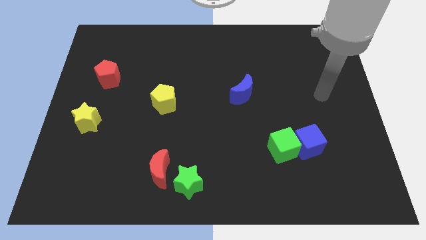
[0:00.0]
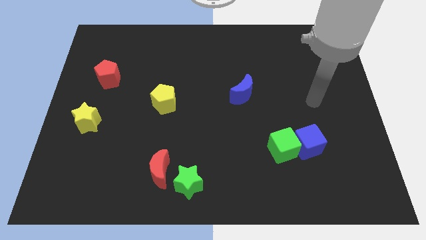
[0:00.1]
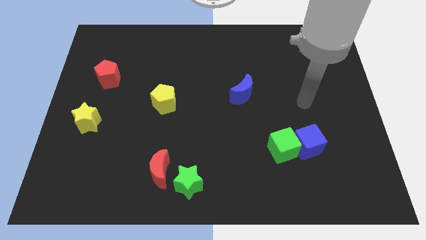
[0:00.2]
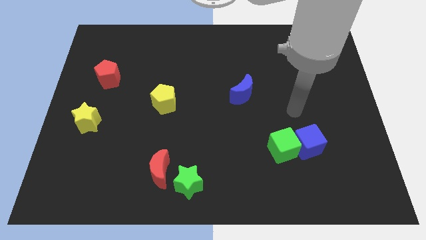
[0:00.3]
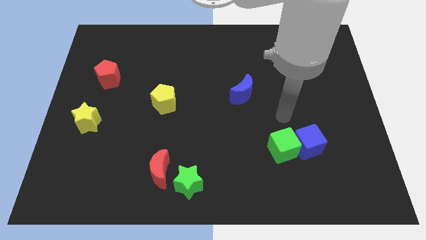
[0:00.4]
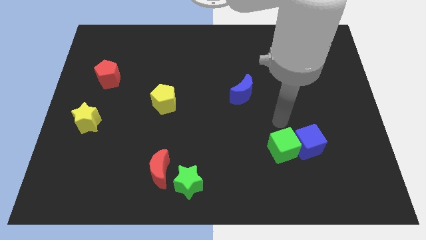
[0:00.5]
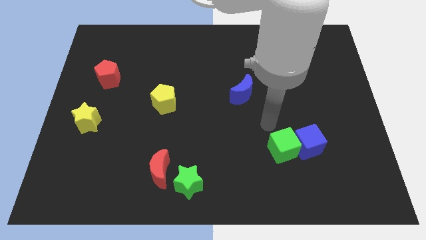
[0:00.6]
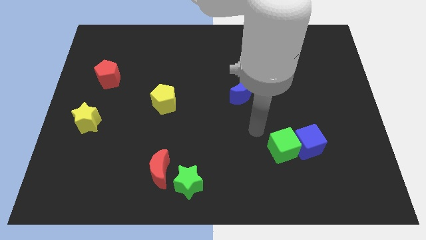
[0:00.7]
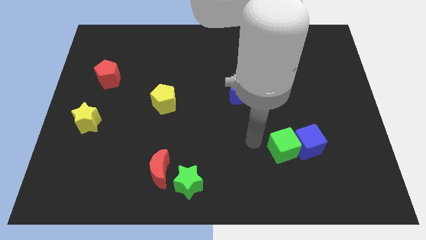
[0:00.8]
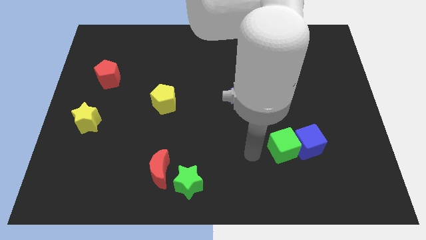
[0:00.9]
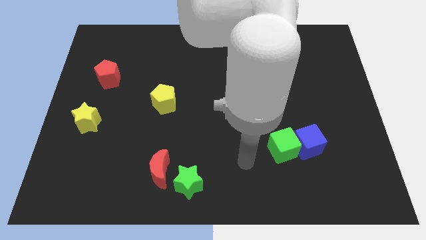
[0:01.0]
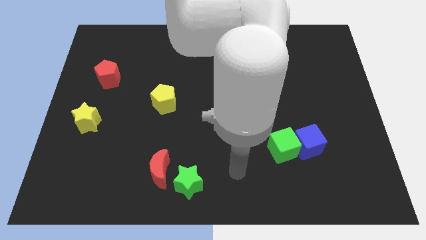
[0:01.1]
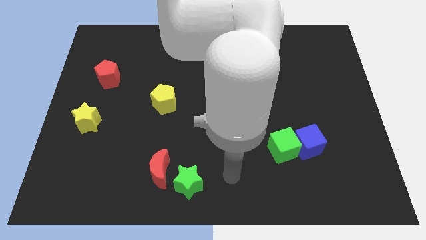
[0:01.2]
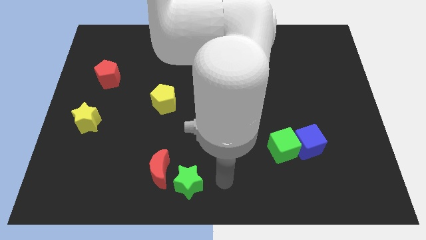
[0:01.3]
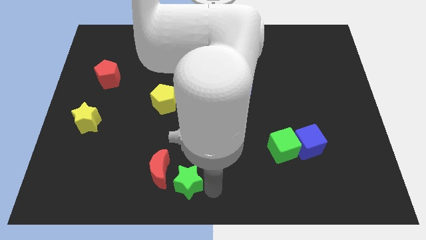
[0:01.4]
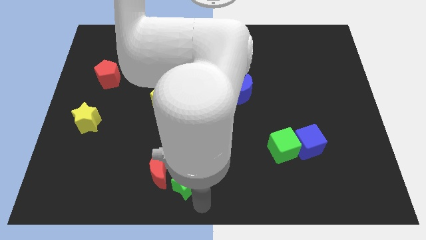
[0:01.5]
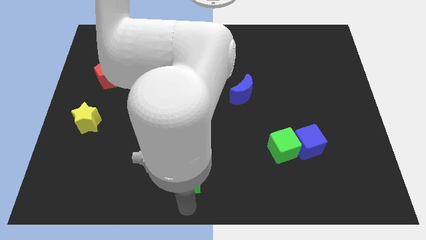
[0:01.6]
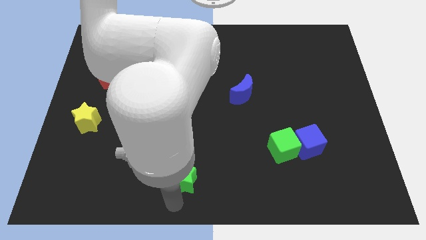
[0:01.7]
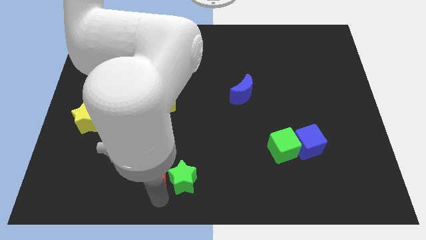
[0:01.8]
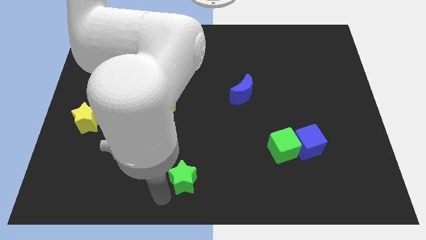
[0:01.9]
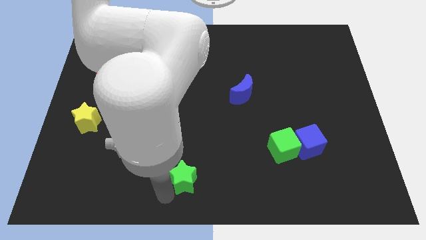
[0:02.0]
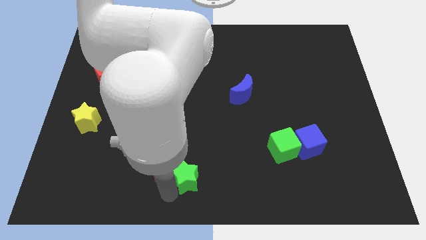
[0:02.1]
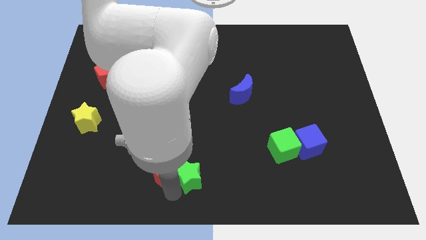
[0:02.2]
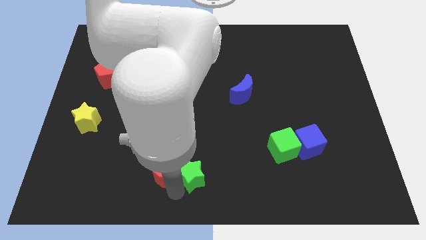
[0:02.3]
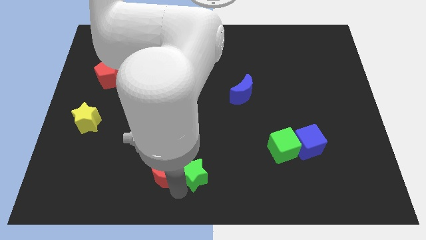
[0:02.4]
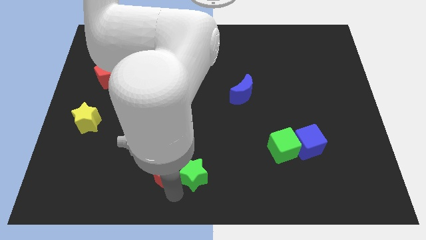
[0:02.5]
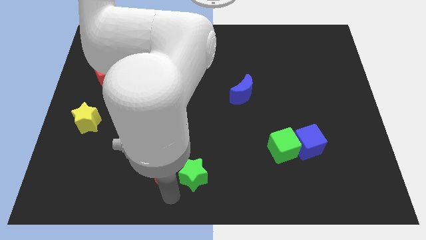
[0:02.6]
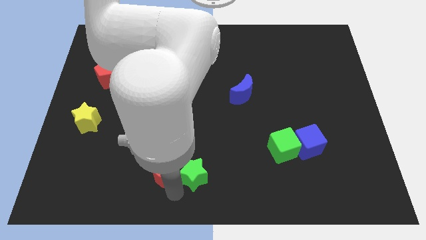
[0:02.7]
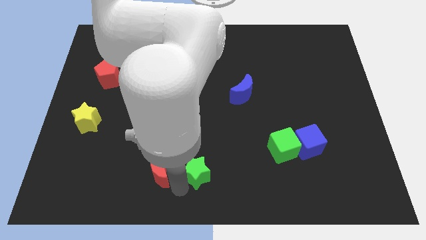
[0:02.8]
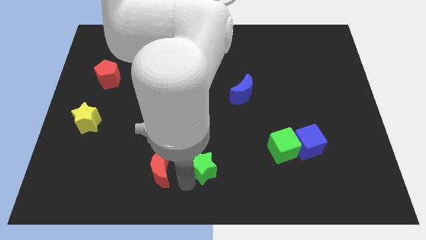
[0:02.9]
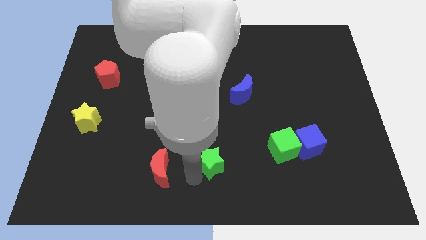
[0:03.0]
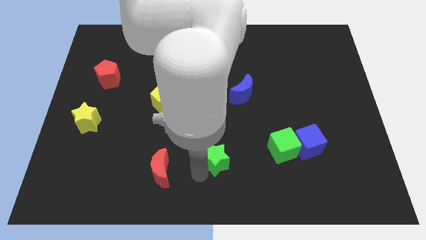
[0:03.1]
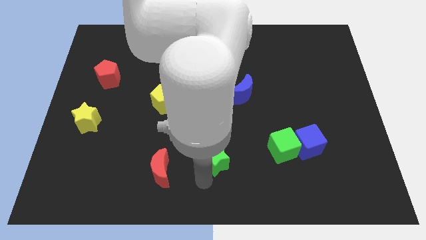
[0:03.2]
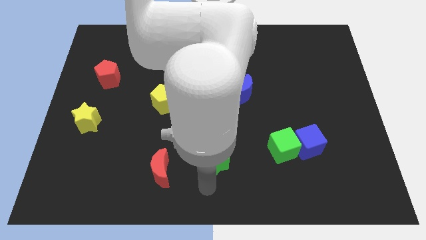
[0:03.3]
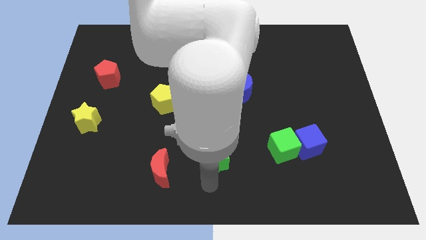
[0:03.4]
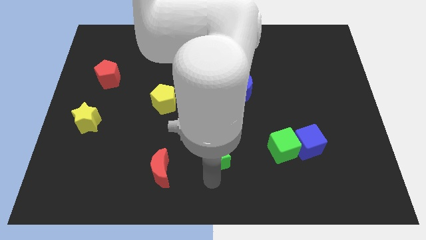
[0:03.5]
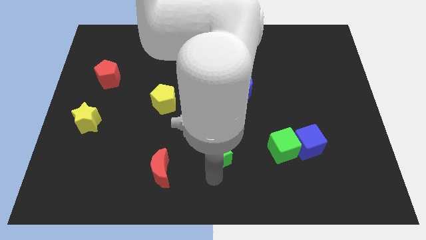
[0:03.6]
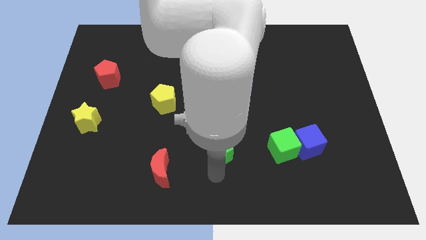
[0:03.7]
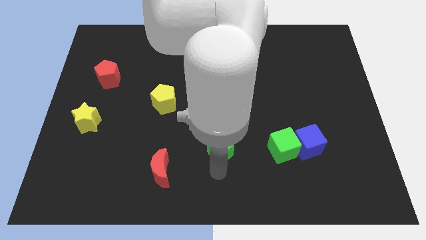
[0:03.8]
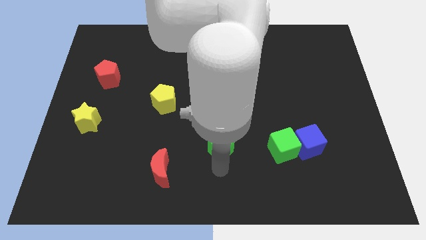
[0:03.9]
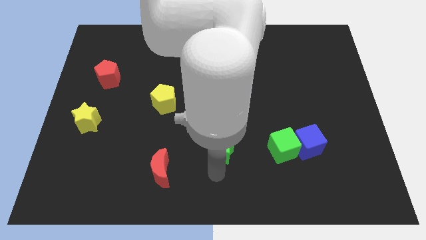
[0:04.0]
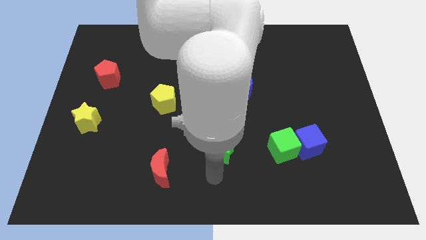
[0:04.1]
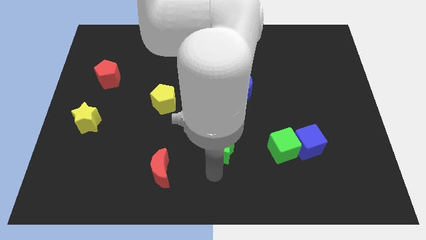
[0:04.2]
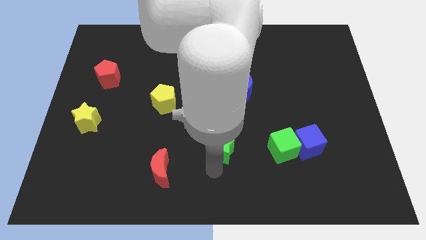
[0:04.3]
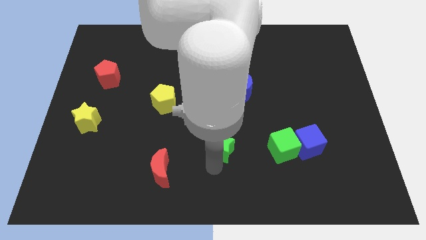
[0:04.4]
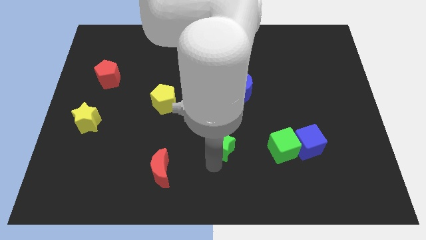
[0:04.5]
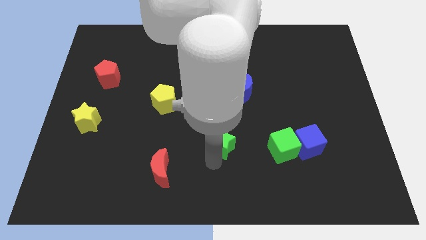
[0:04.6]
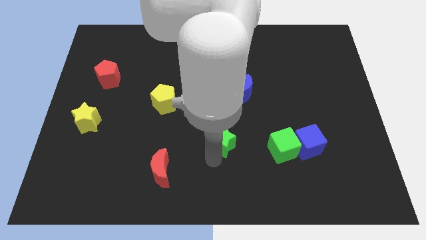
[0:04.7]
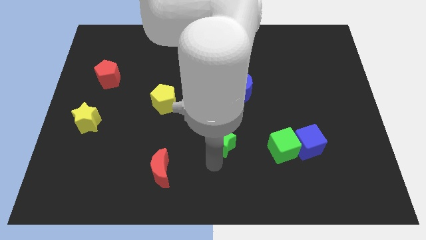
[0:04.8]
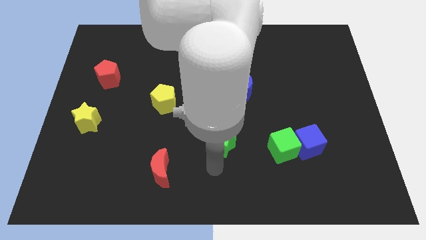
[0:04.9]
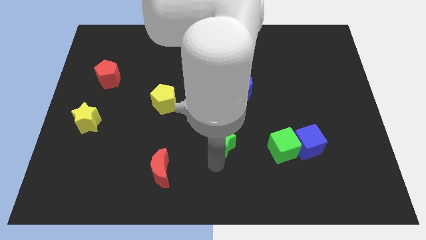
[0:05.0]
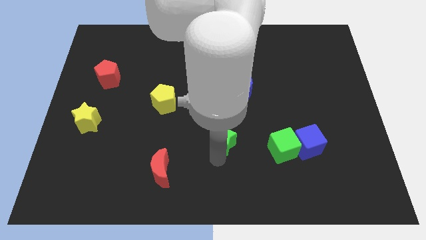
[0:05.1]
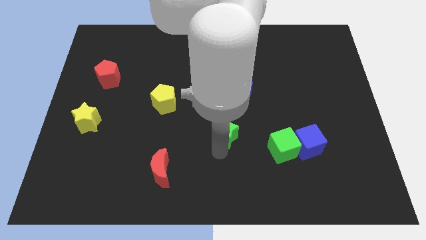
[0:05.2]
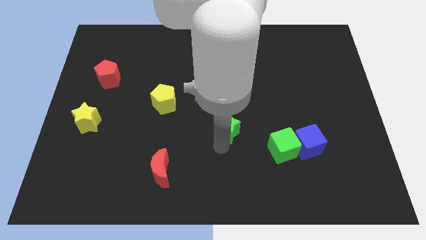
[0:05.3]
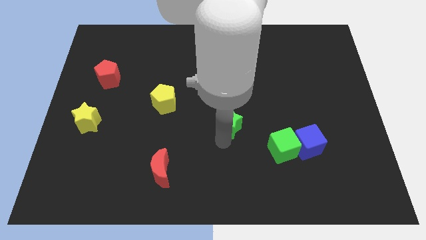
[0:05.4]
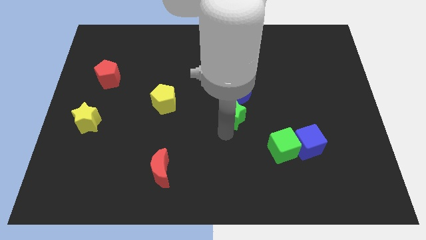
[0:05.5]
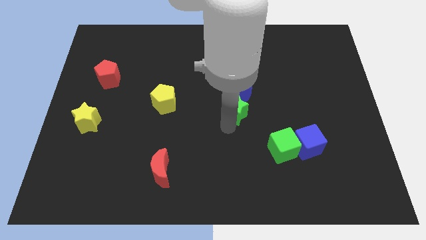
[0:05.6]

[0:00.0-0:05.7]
move the green star next to the blue moon

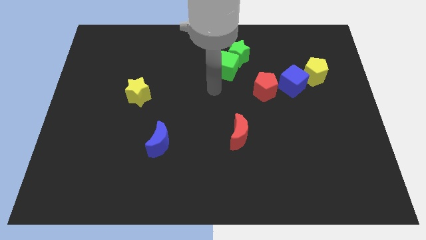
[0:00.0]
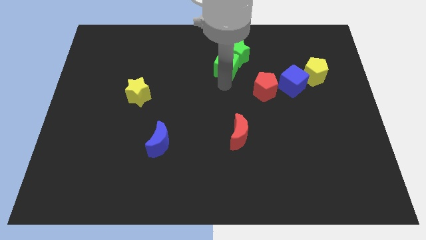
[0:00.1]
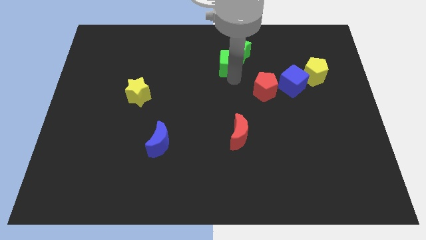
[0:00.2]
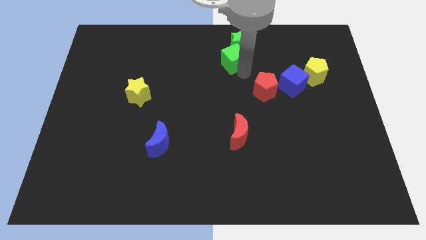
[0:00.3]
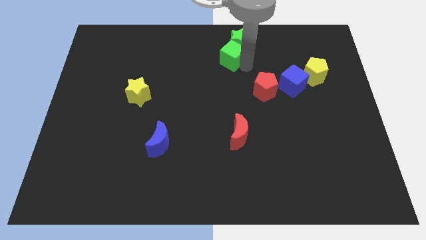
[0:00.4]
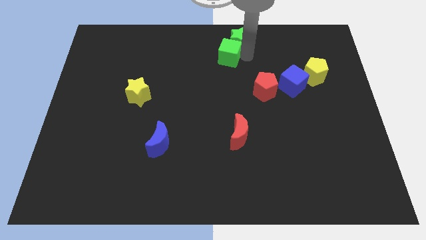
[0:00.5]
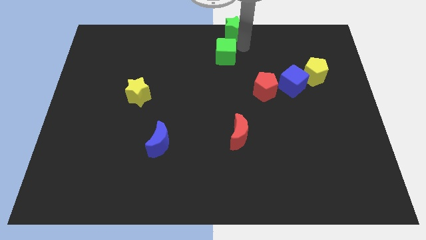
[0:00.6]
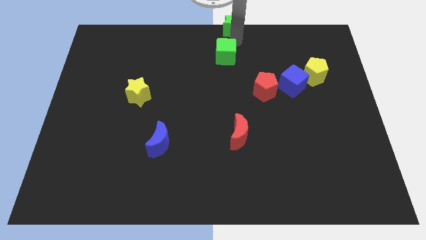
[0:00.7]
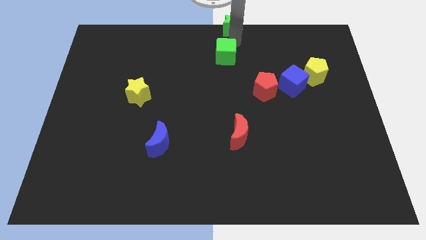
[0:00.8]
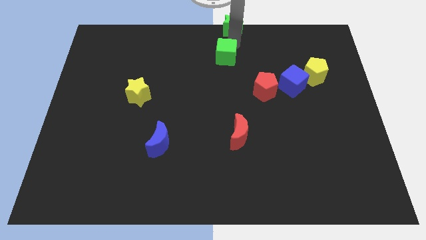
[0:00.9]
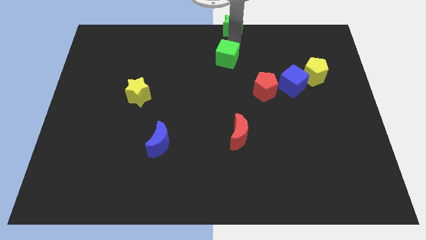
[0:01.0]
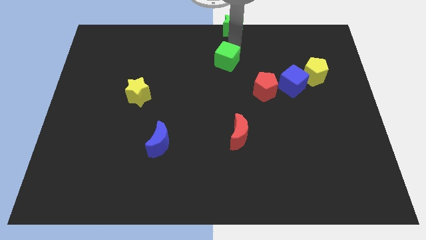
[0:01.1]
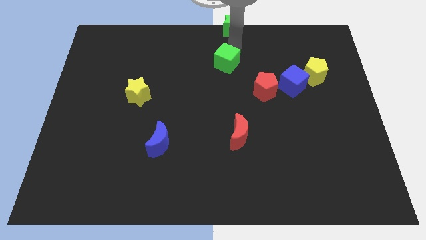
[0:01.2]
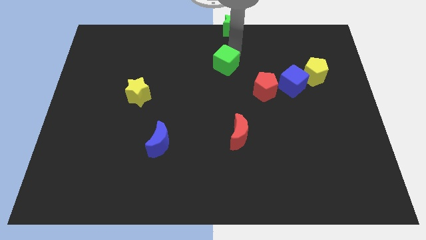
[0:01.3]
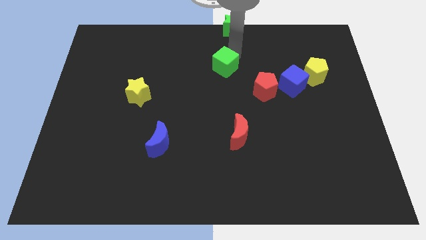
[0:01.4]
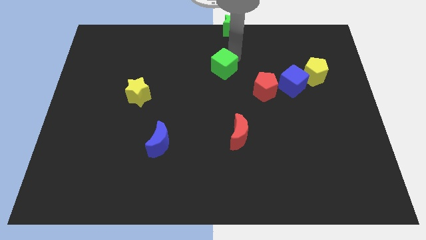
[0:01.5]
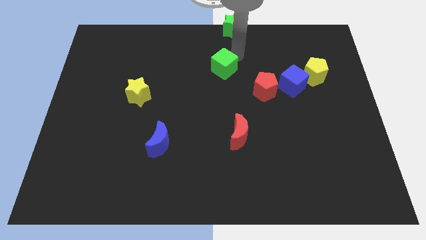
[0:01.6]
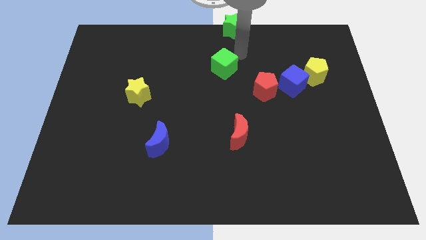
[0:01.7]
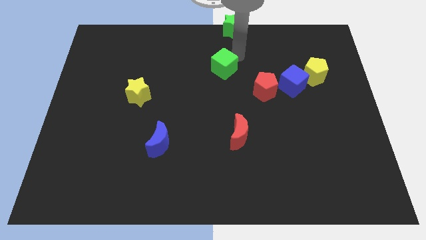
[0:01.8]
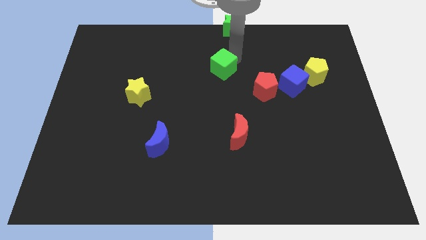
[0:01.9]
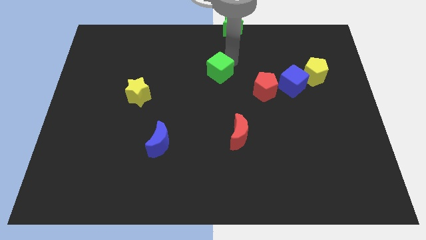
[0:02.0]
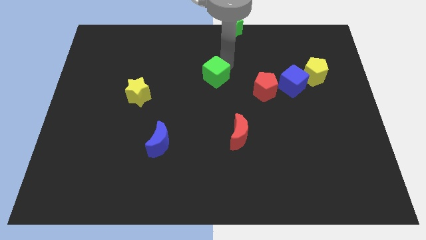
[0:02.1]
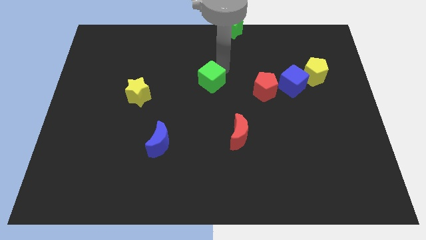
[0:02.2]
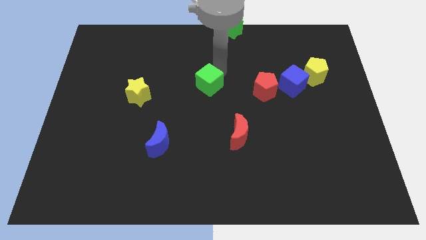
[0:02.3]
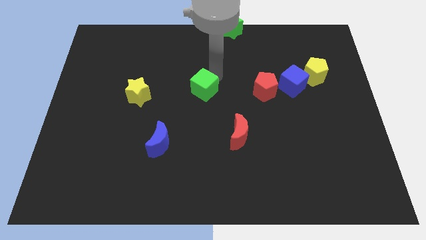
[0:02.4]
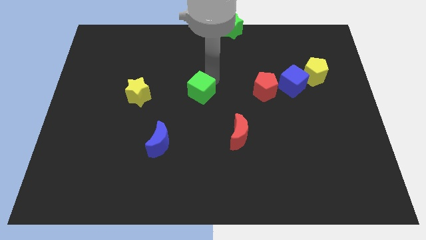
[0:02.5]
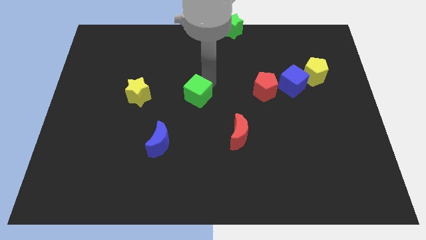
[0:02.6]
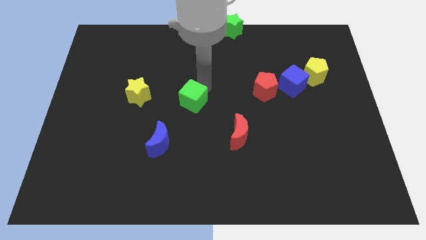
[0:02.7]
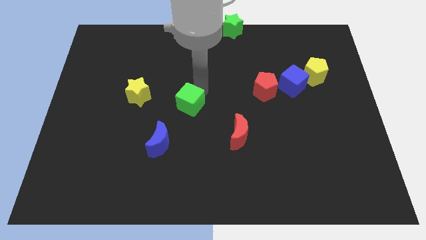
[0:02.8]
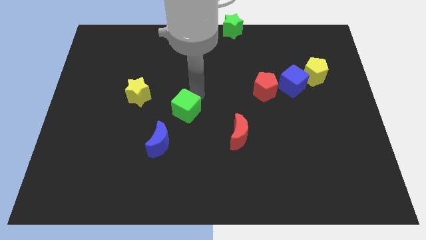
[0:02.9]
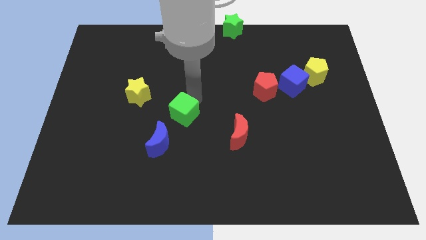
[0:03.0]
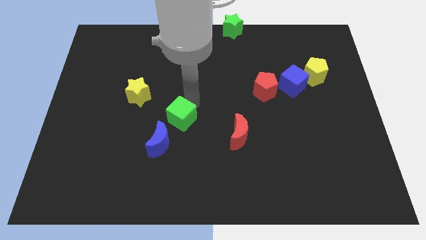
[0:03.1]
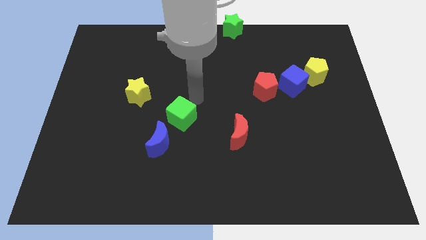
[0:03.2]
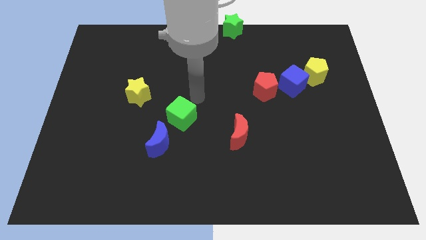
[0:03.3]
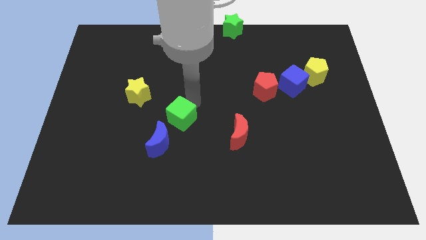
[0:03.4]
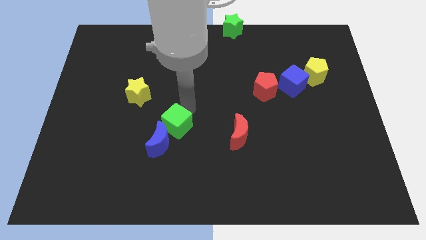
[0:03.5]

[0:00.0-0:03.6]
push the green cube close to the blue moon
